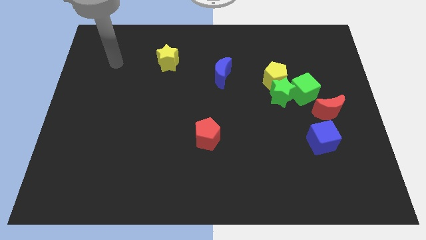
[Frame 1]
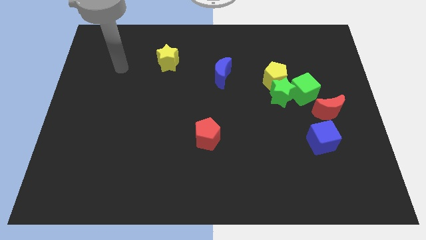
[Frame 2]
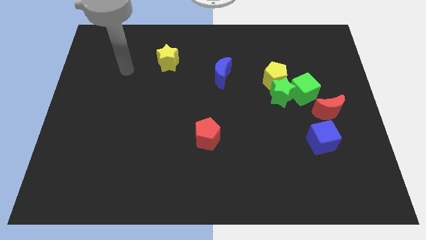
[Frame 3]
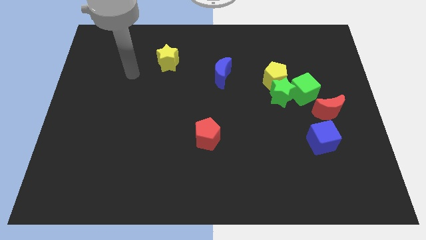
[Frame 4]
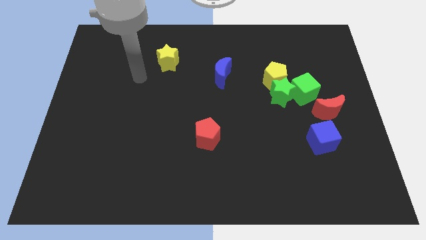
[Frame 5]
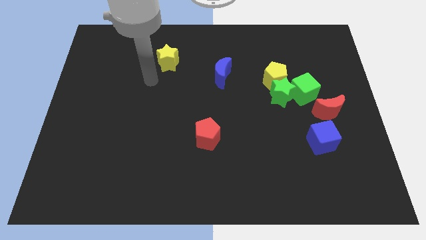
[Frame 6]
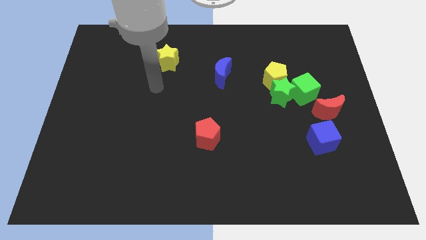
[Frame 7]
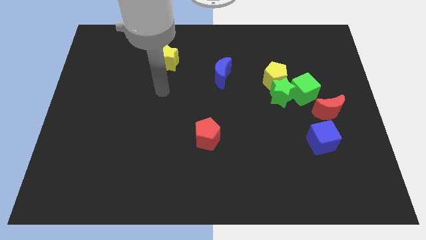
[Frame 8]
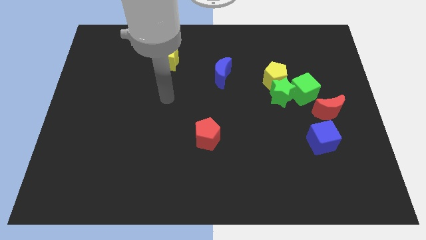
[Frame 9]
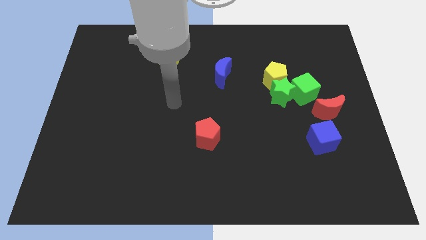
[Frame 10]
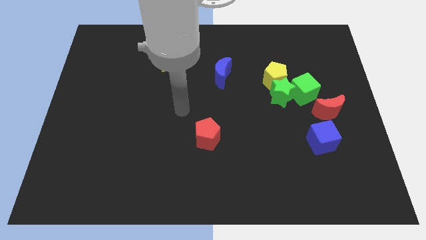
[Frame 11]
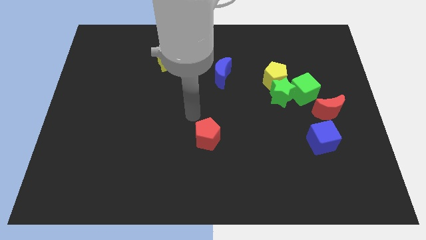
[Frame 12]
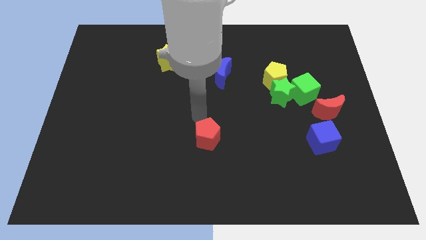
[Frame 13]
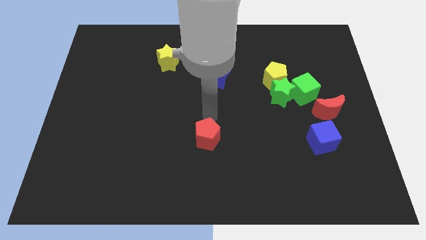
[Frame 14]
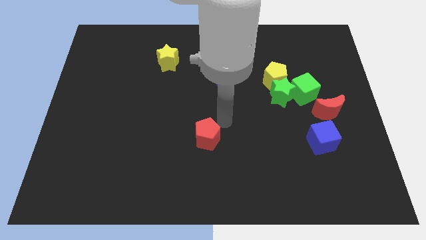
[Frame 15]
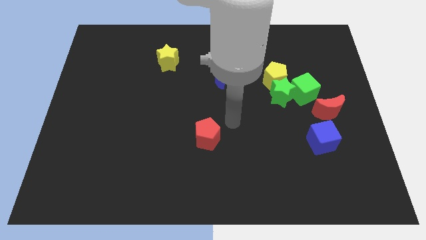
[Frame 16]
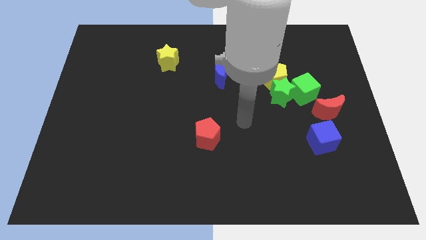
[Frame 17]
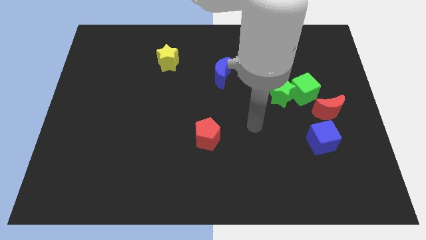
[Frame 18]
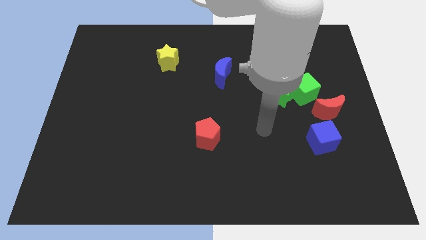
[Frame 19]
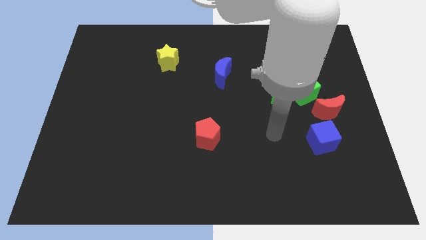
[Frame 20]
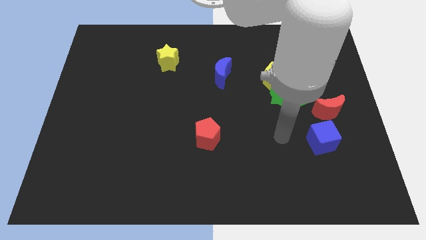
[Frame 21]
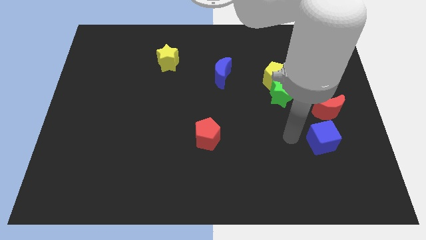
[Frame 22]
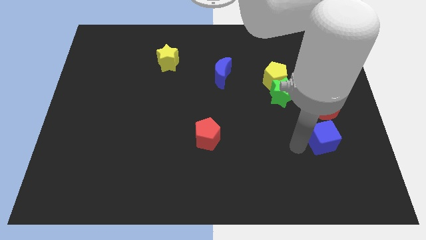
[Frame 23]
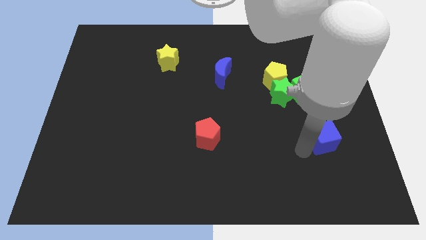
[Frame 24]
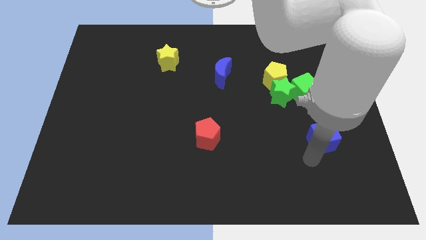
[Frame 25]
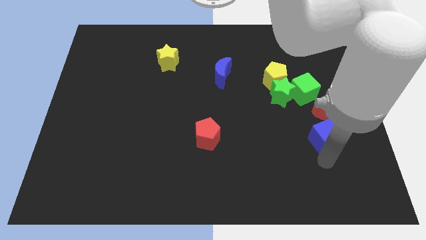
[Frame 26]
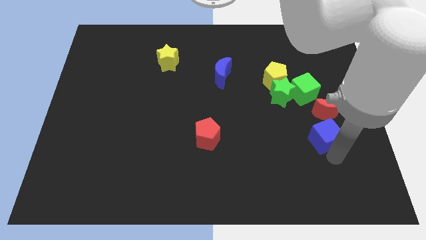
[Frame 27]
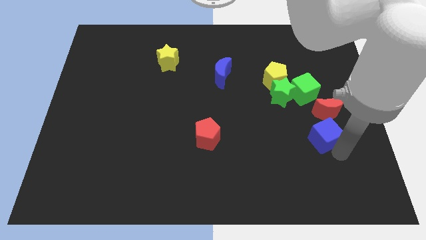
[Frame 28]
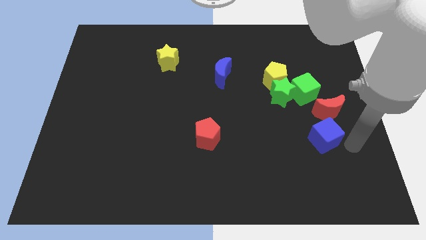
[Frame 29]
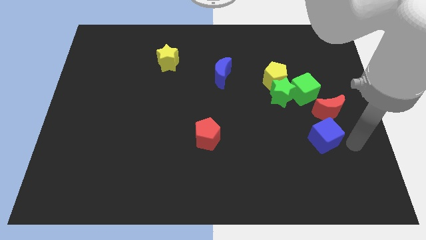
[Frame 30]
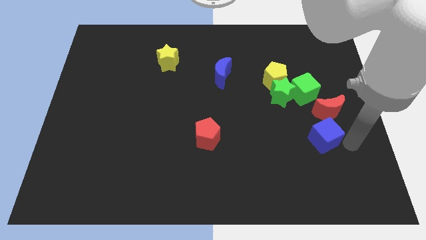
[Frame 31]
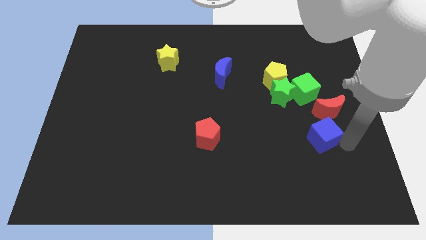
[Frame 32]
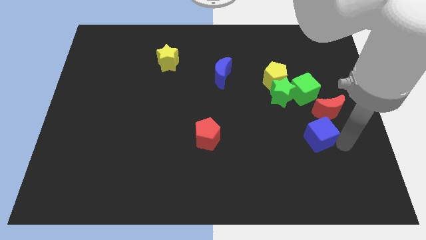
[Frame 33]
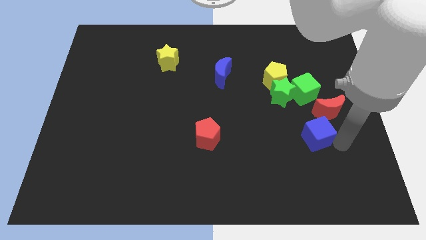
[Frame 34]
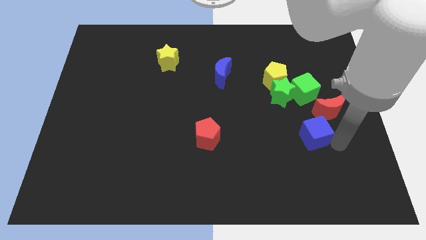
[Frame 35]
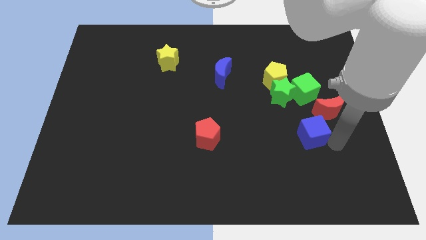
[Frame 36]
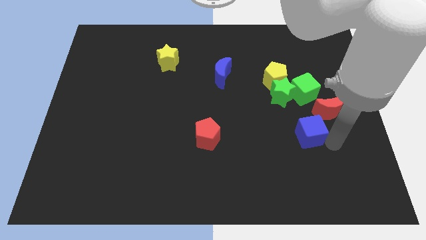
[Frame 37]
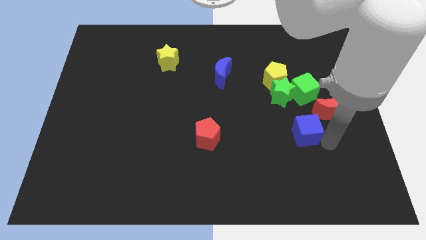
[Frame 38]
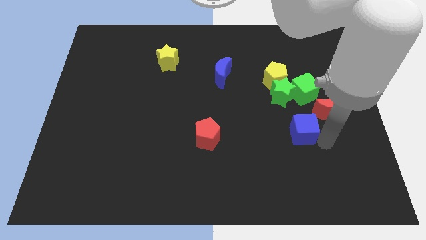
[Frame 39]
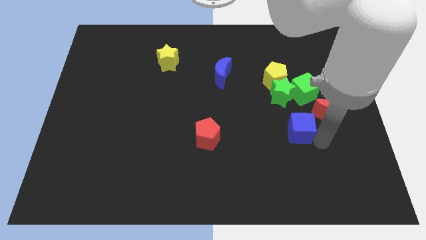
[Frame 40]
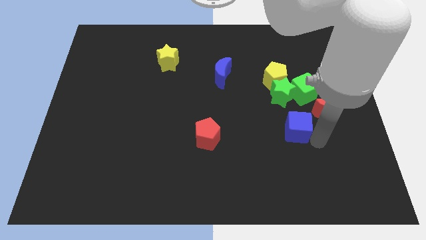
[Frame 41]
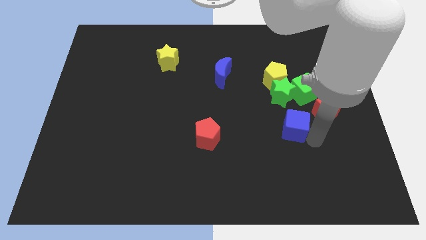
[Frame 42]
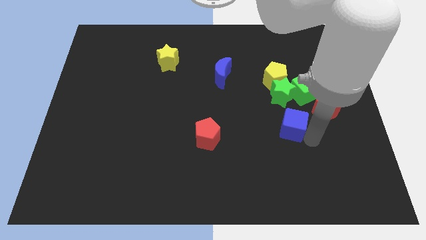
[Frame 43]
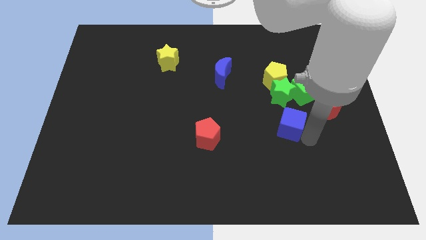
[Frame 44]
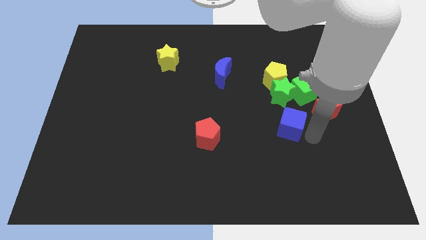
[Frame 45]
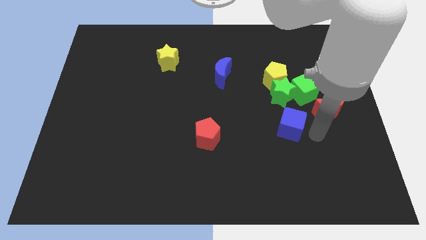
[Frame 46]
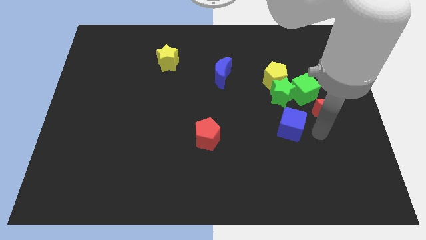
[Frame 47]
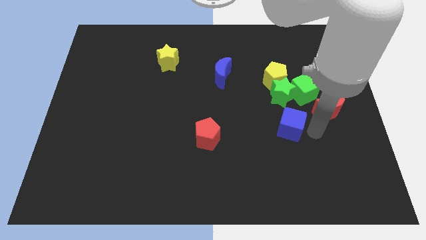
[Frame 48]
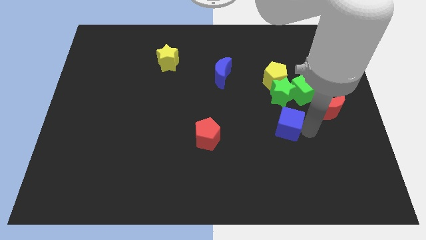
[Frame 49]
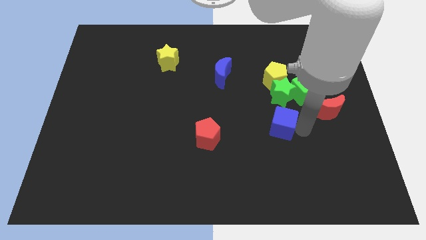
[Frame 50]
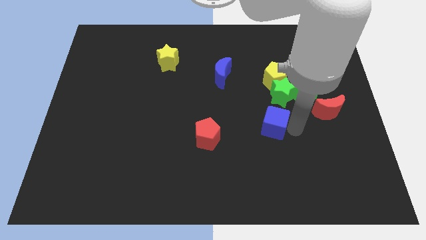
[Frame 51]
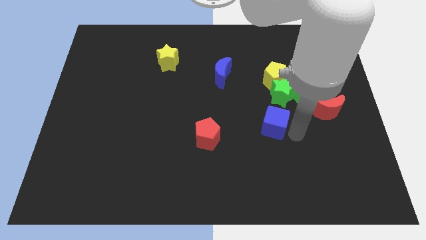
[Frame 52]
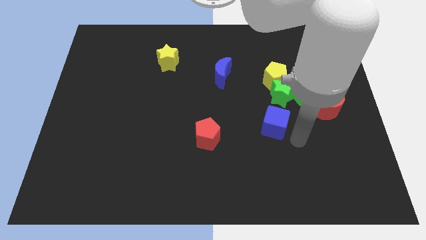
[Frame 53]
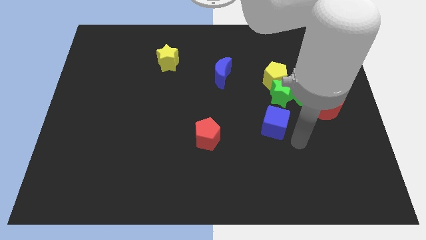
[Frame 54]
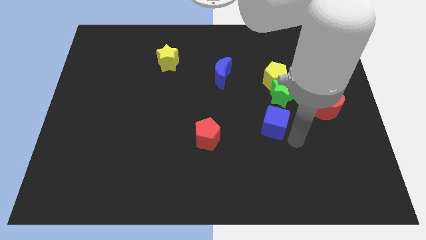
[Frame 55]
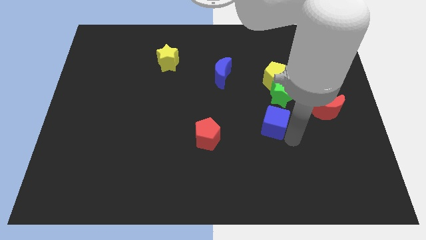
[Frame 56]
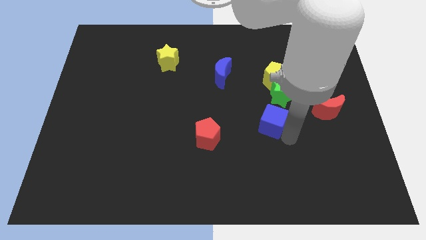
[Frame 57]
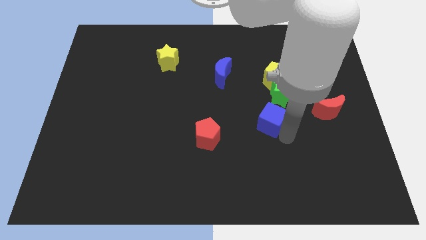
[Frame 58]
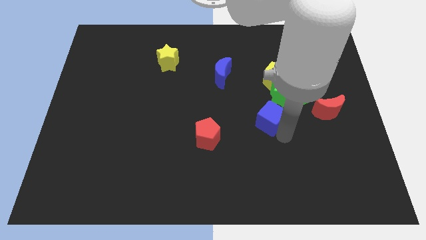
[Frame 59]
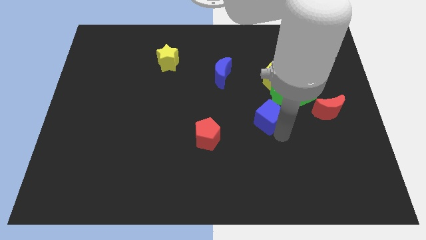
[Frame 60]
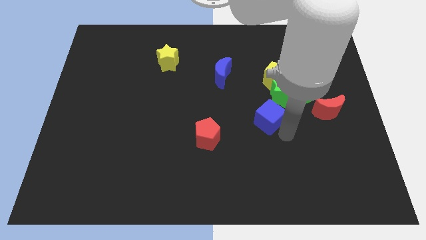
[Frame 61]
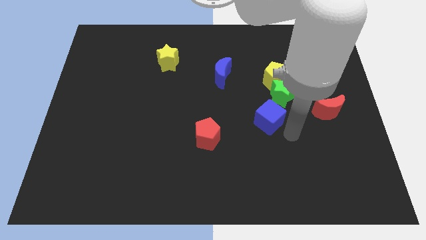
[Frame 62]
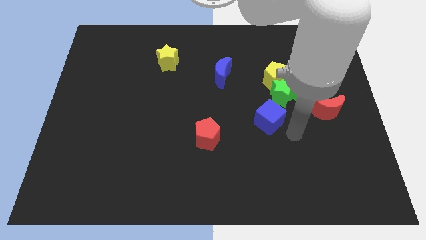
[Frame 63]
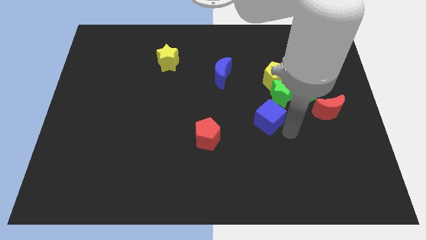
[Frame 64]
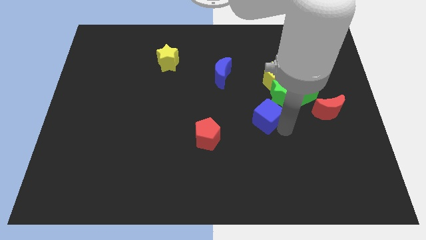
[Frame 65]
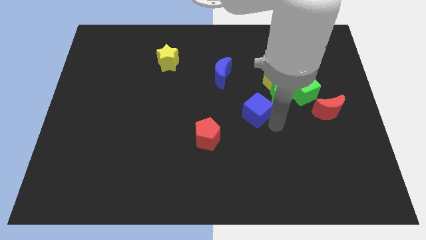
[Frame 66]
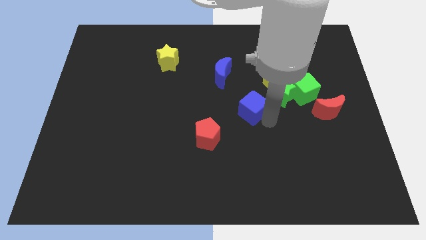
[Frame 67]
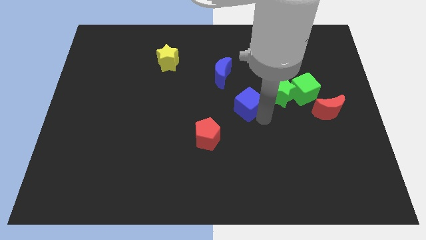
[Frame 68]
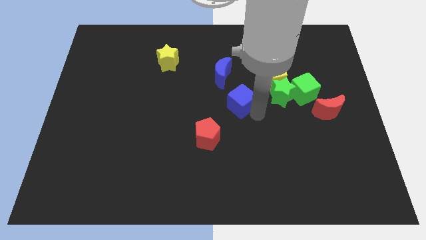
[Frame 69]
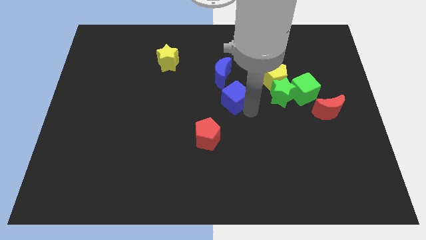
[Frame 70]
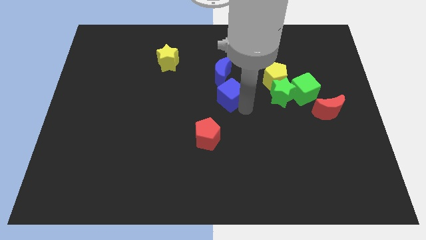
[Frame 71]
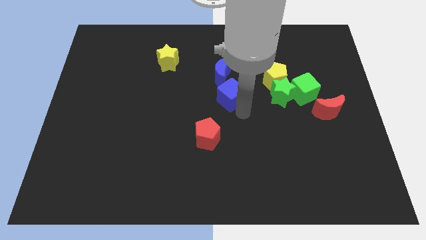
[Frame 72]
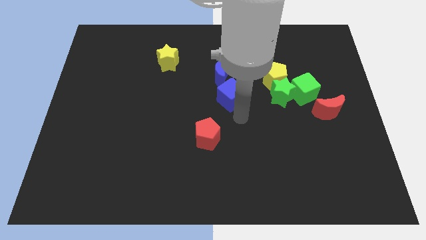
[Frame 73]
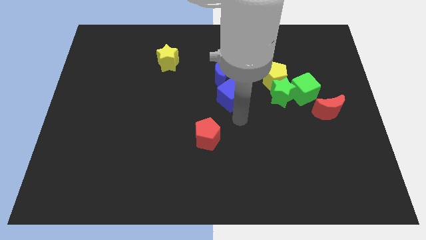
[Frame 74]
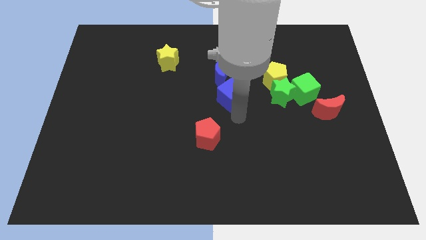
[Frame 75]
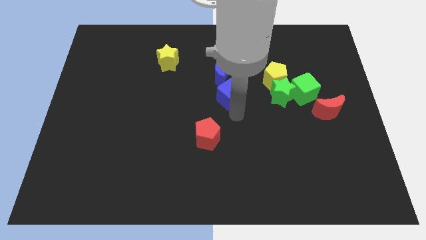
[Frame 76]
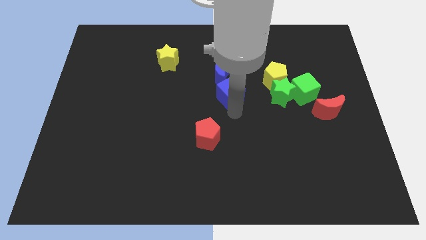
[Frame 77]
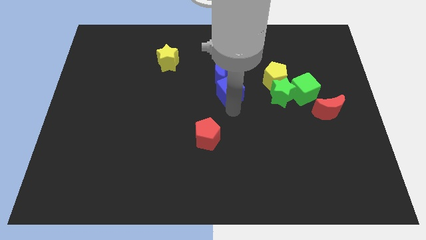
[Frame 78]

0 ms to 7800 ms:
put the blue cube close to the blue moon
